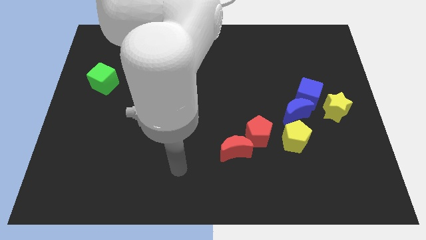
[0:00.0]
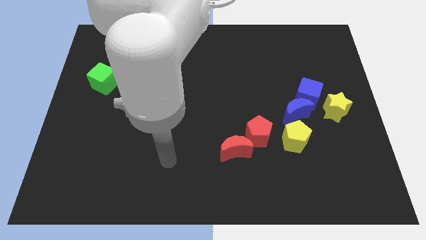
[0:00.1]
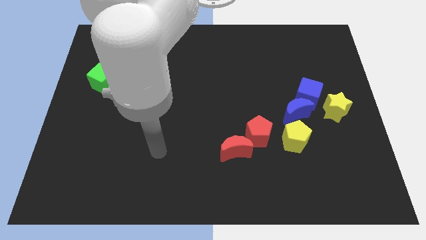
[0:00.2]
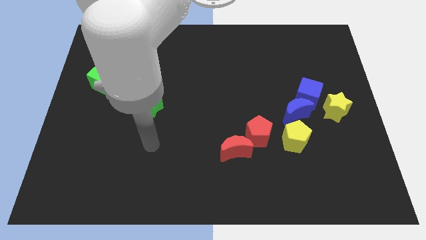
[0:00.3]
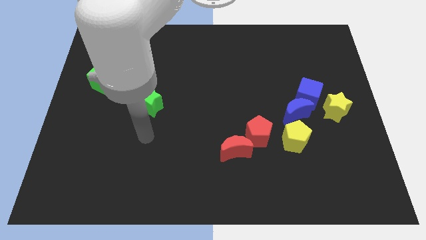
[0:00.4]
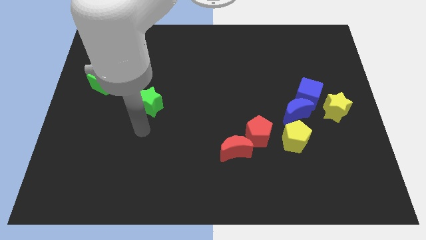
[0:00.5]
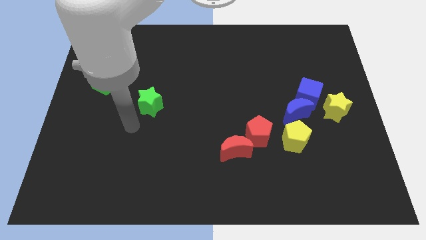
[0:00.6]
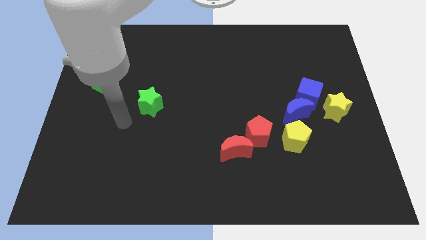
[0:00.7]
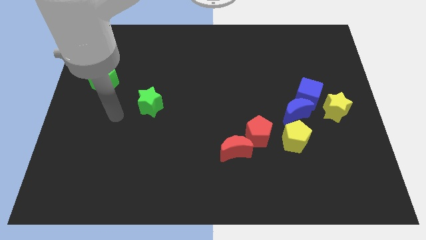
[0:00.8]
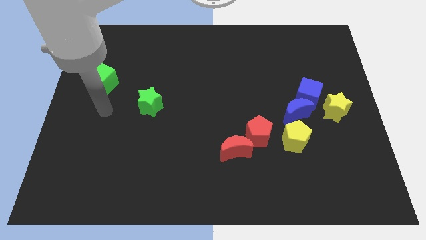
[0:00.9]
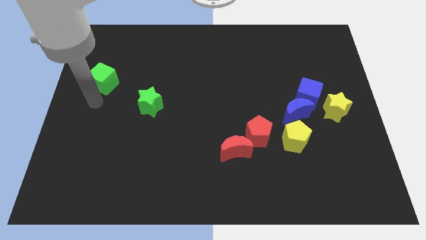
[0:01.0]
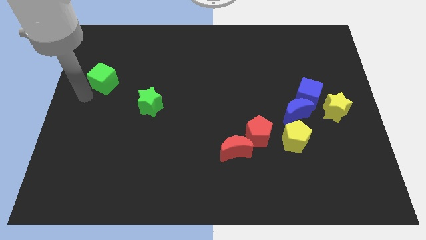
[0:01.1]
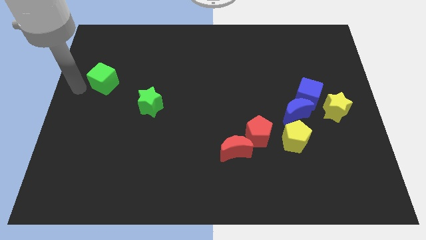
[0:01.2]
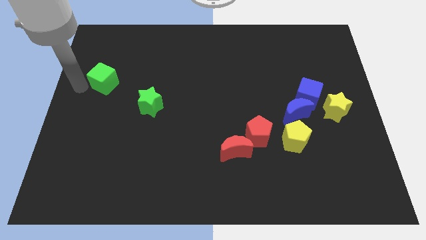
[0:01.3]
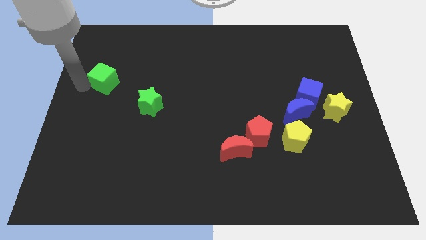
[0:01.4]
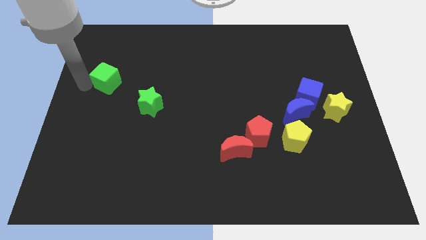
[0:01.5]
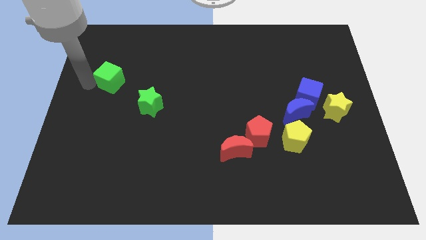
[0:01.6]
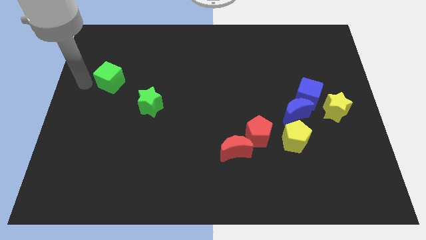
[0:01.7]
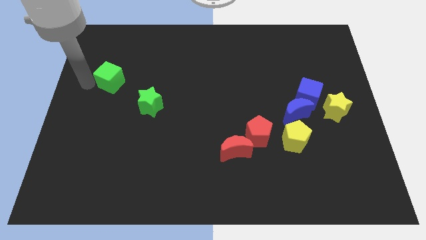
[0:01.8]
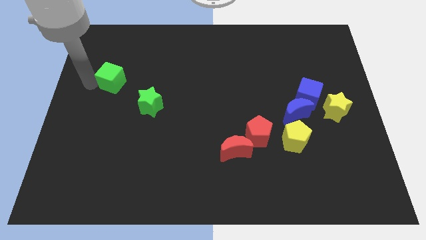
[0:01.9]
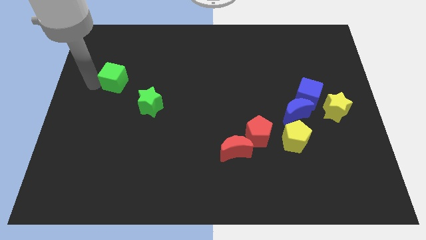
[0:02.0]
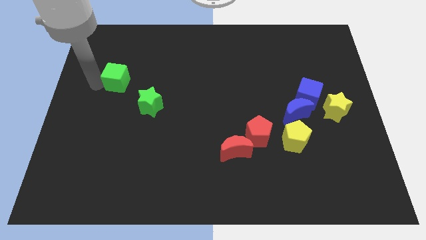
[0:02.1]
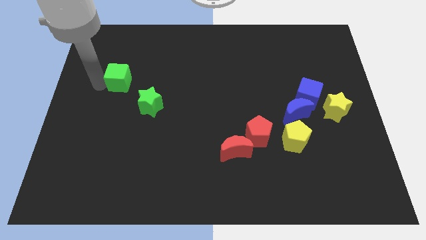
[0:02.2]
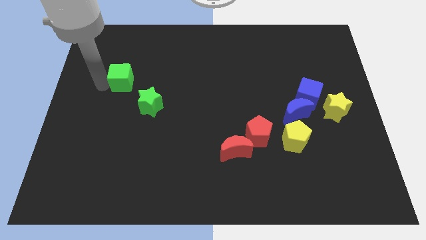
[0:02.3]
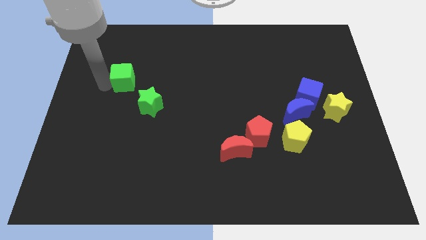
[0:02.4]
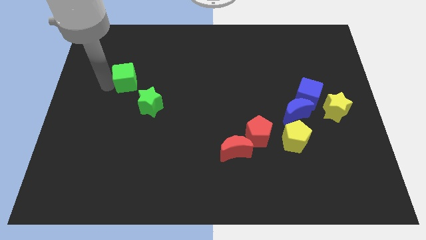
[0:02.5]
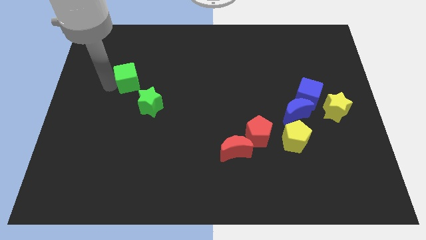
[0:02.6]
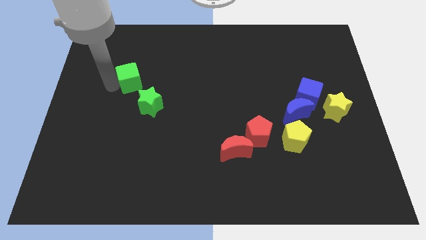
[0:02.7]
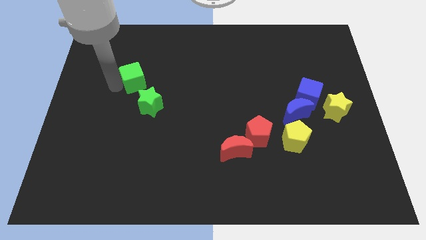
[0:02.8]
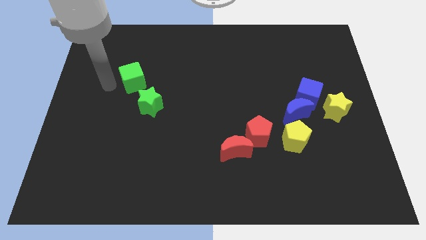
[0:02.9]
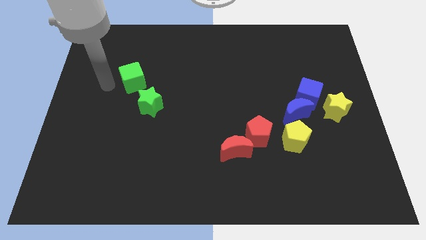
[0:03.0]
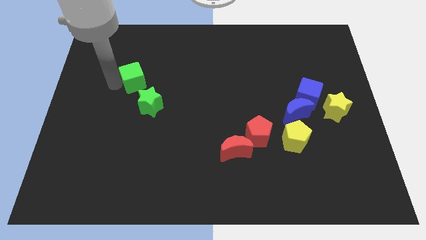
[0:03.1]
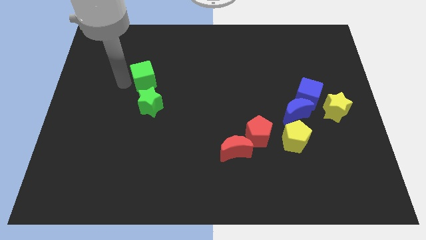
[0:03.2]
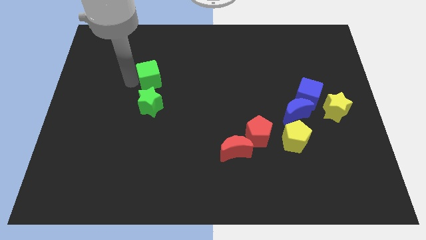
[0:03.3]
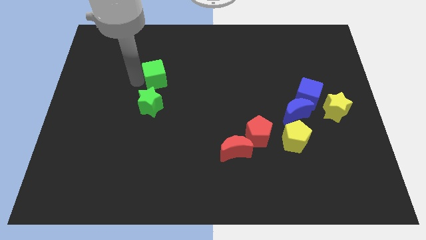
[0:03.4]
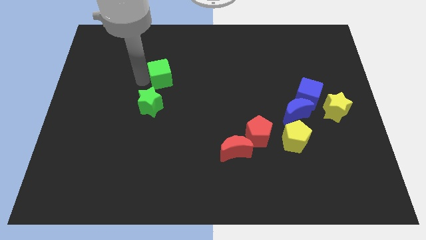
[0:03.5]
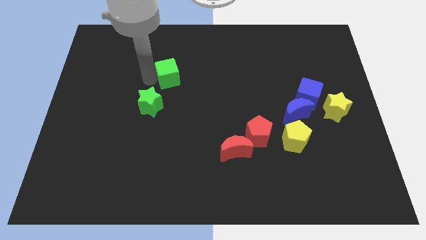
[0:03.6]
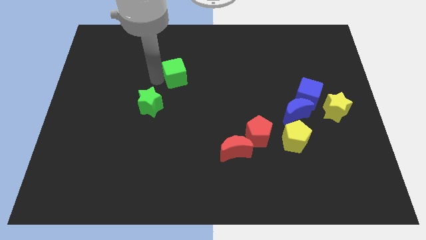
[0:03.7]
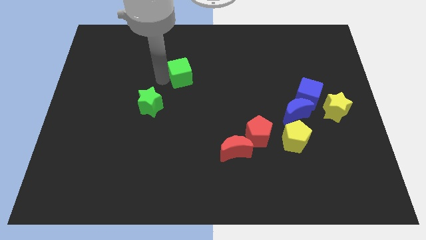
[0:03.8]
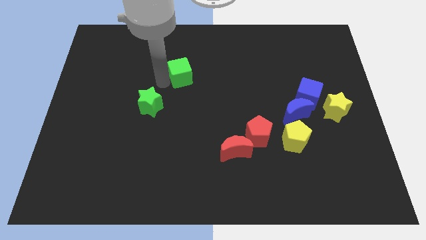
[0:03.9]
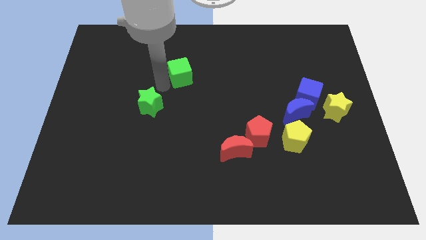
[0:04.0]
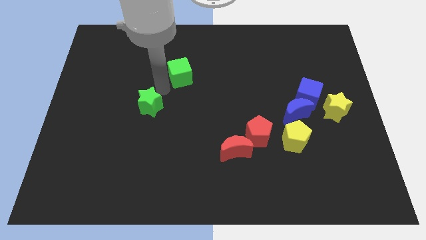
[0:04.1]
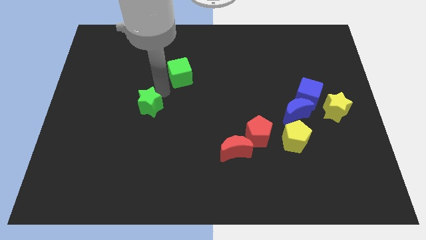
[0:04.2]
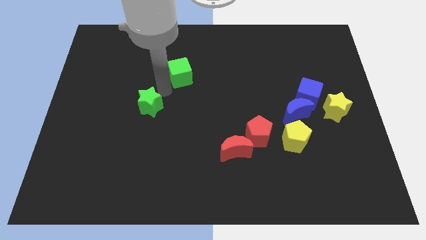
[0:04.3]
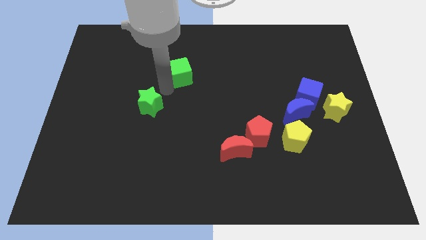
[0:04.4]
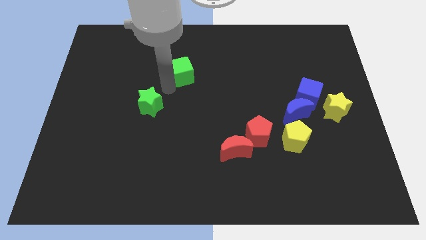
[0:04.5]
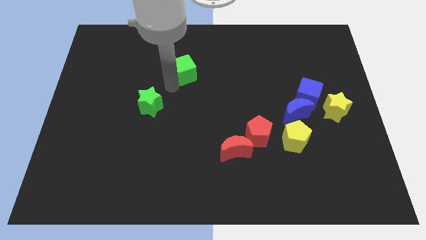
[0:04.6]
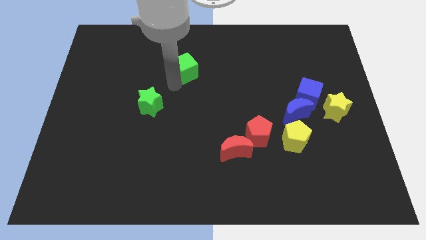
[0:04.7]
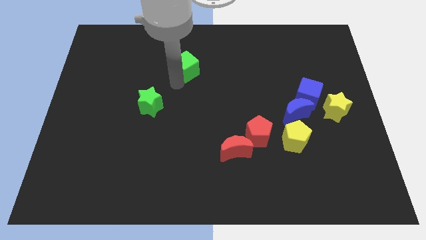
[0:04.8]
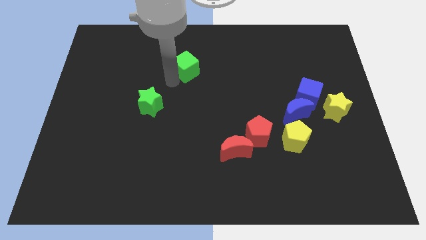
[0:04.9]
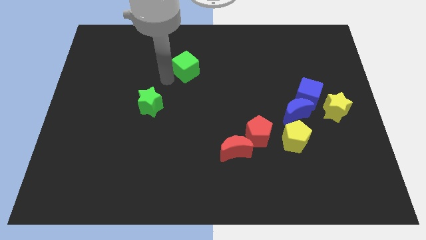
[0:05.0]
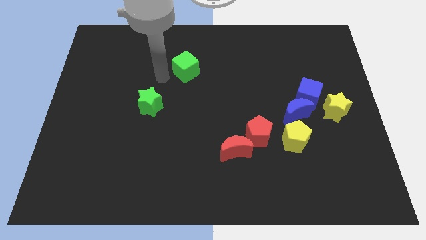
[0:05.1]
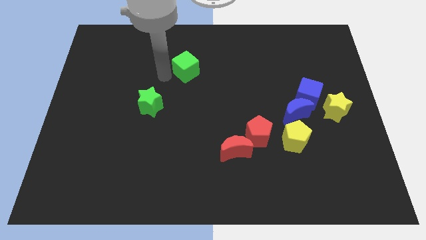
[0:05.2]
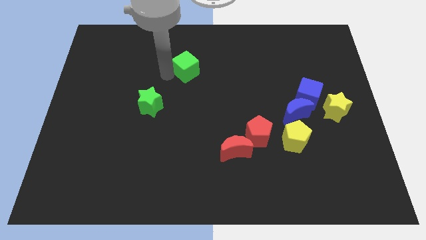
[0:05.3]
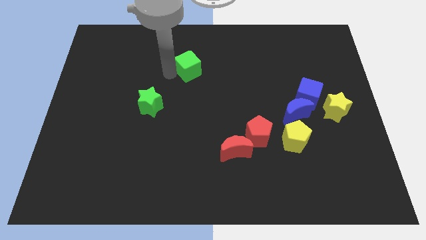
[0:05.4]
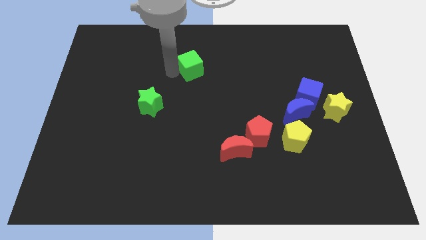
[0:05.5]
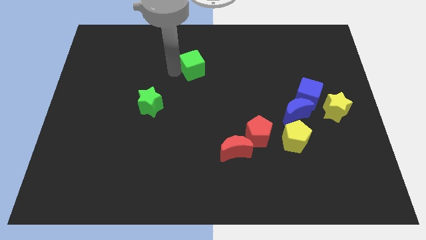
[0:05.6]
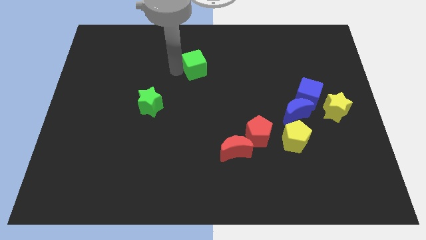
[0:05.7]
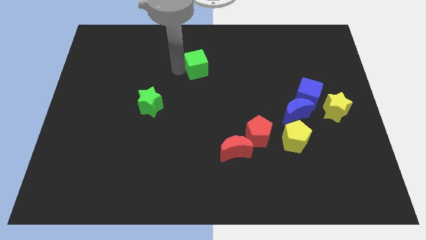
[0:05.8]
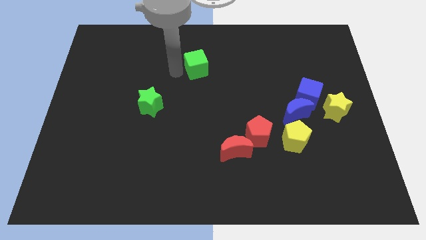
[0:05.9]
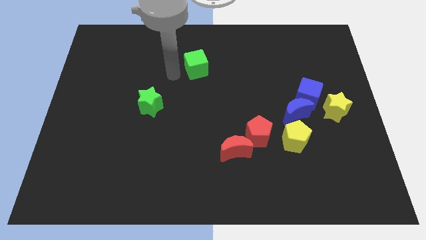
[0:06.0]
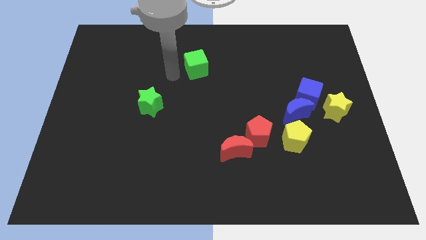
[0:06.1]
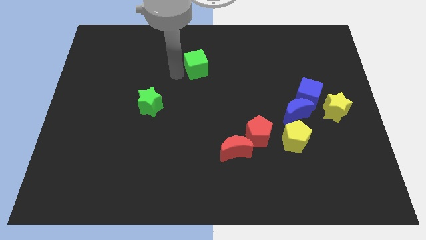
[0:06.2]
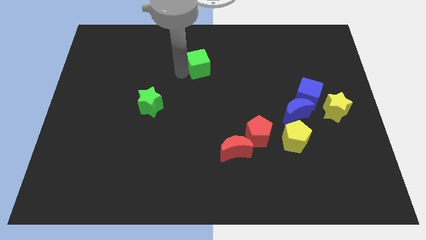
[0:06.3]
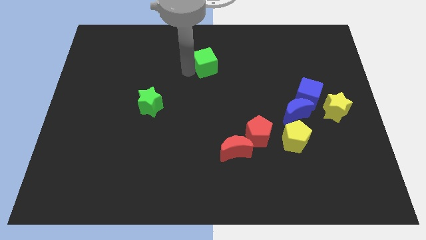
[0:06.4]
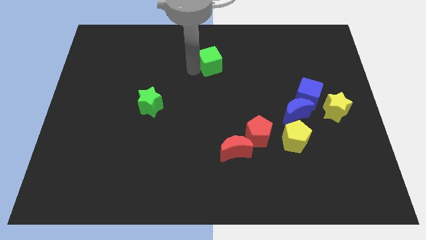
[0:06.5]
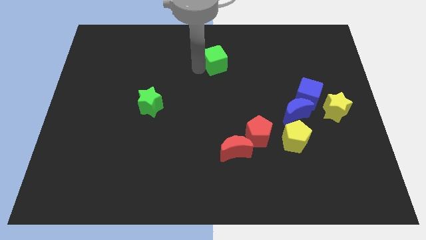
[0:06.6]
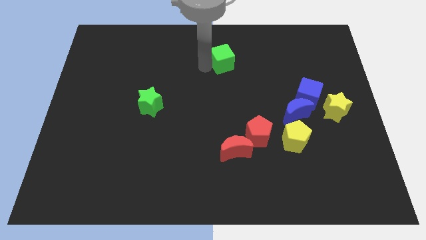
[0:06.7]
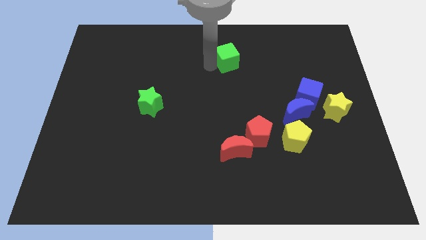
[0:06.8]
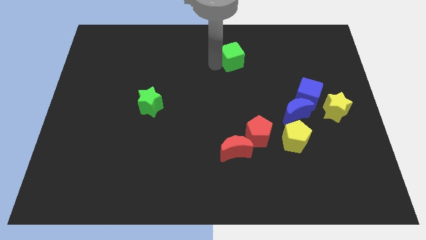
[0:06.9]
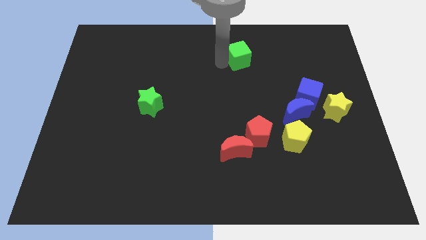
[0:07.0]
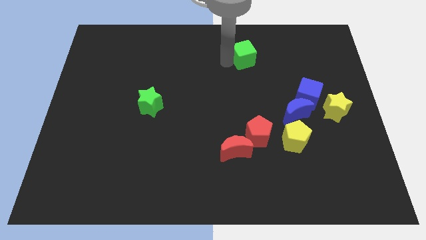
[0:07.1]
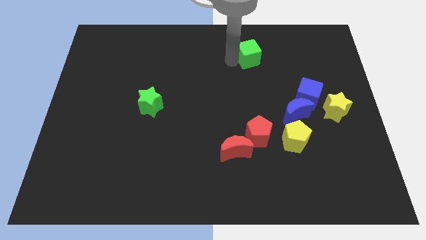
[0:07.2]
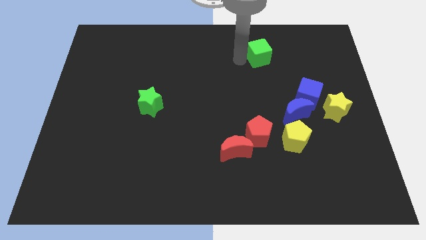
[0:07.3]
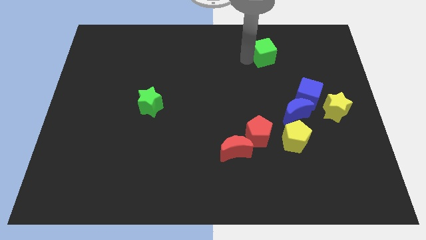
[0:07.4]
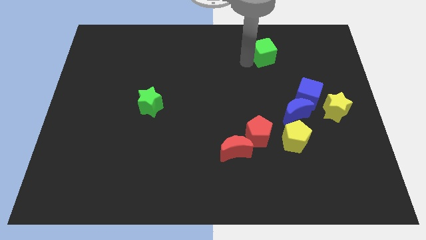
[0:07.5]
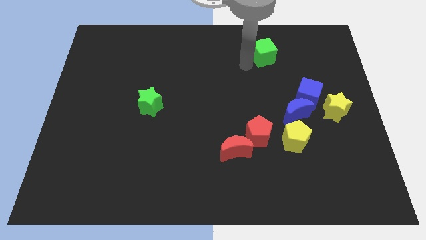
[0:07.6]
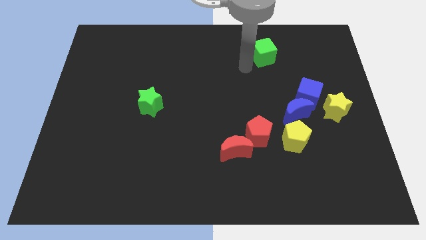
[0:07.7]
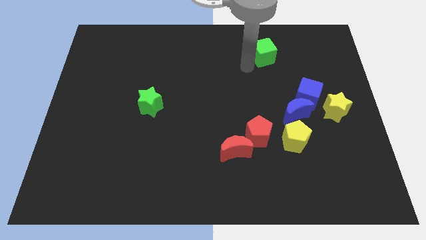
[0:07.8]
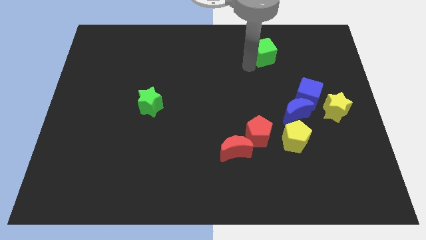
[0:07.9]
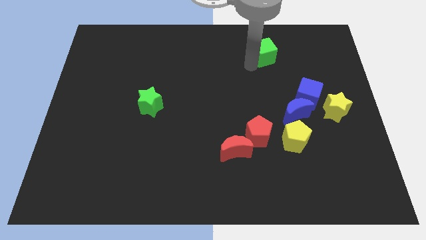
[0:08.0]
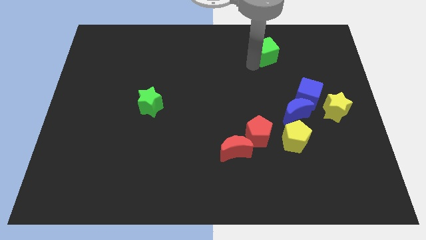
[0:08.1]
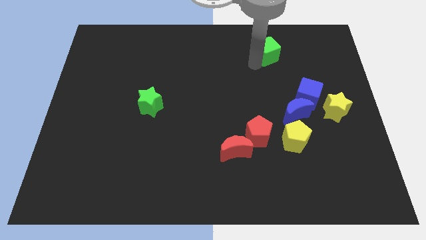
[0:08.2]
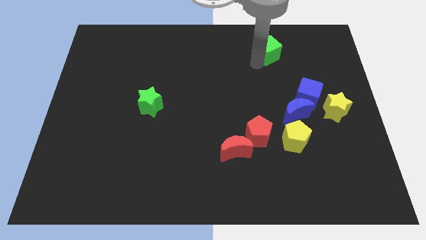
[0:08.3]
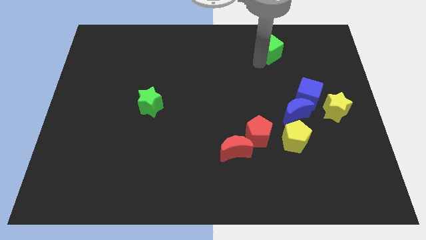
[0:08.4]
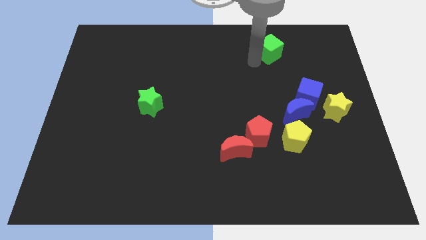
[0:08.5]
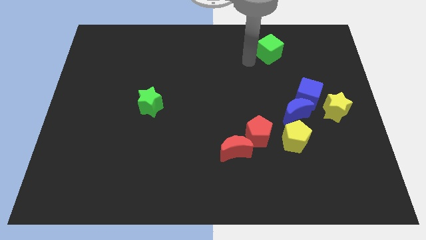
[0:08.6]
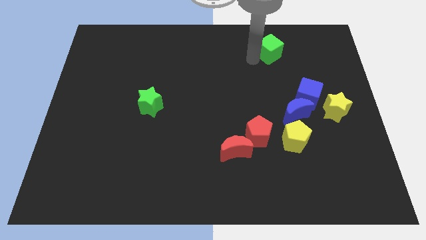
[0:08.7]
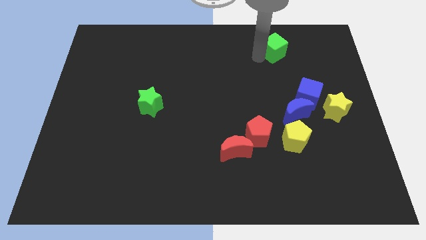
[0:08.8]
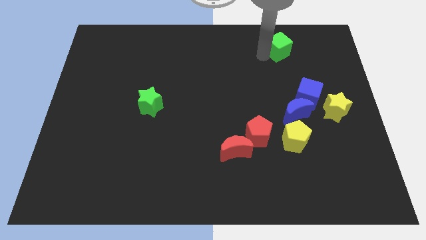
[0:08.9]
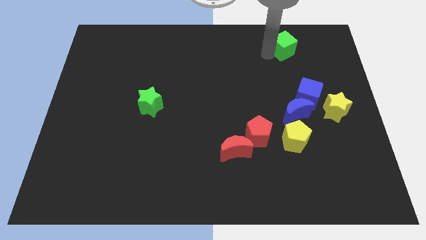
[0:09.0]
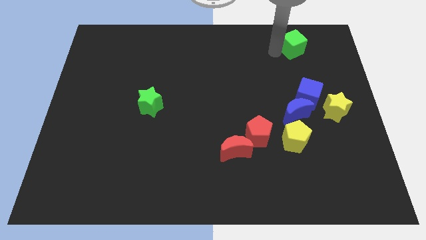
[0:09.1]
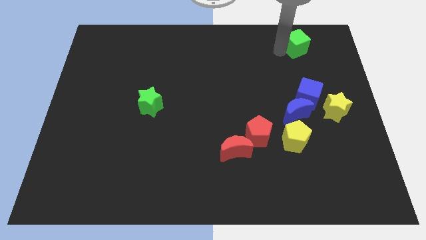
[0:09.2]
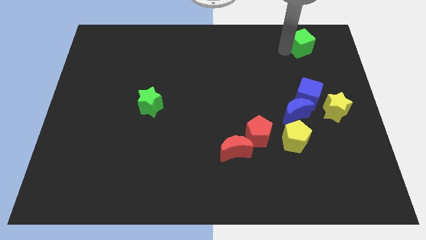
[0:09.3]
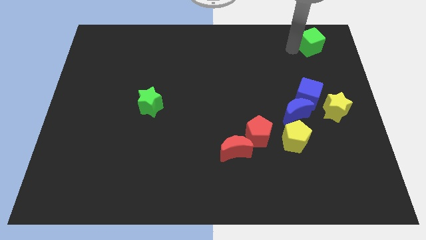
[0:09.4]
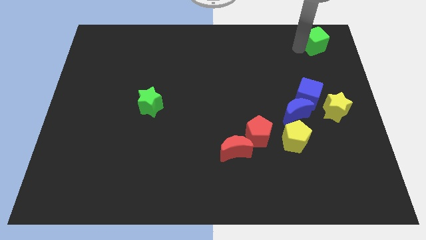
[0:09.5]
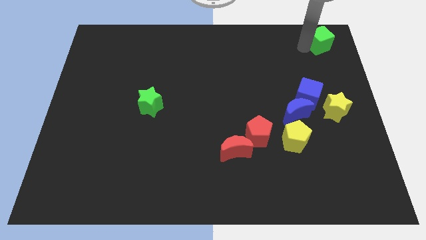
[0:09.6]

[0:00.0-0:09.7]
slide the green cube to the top right corner
